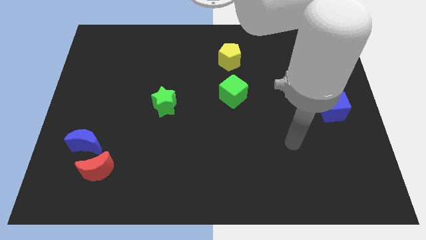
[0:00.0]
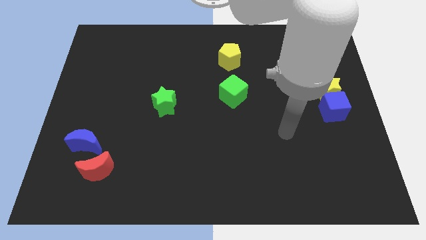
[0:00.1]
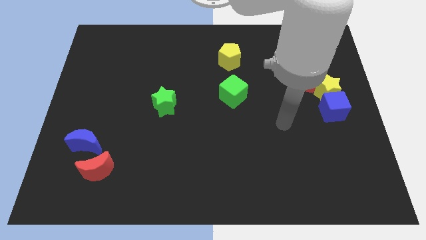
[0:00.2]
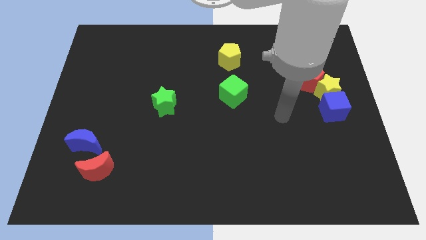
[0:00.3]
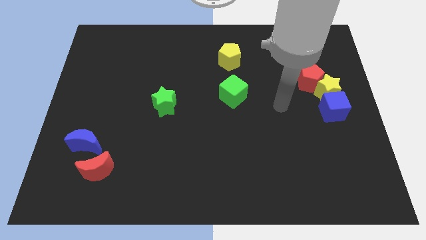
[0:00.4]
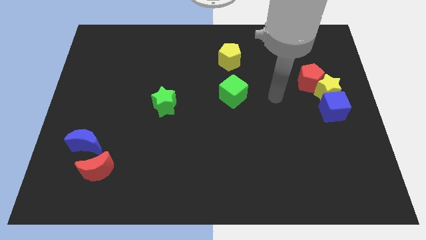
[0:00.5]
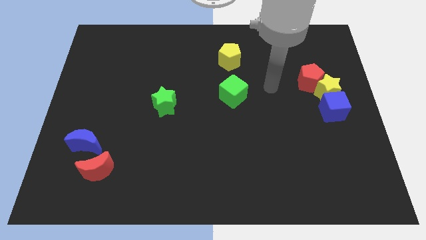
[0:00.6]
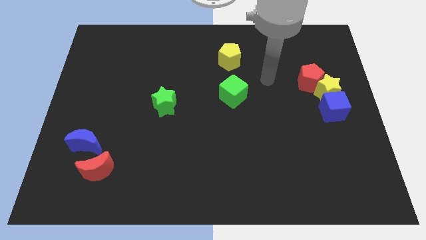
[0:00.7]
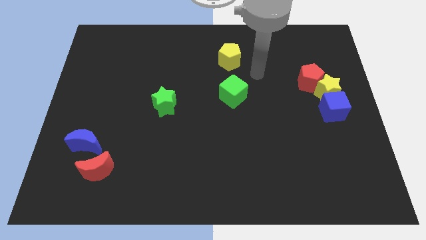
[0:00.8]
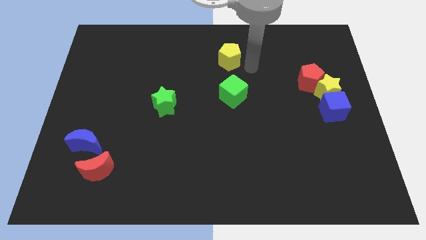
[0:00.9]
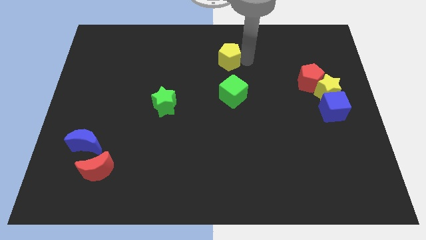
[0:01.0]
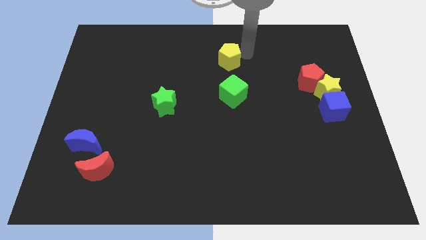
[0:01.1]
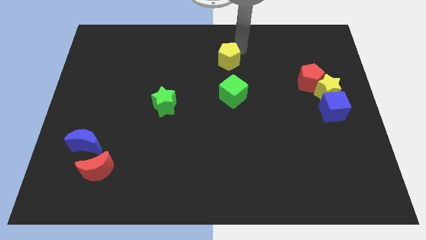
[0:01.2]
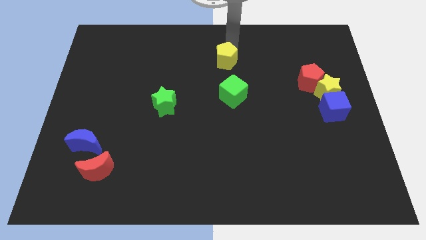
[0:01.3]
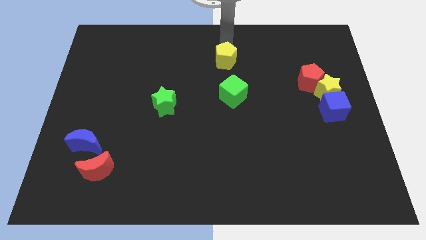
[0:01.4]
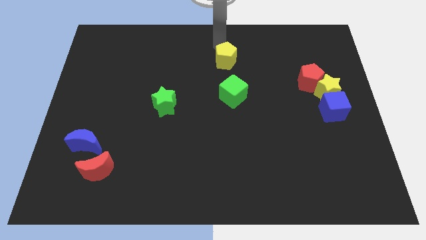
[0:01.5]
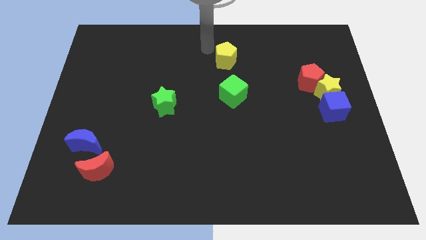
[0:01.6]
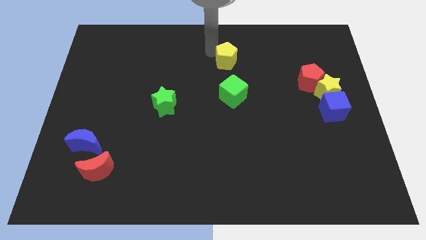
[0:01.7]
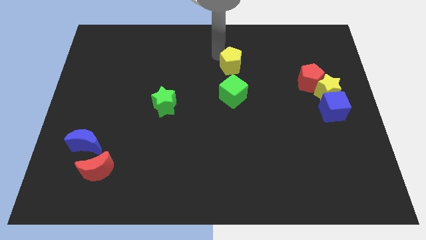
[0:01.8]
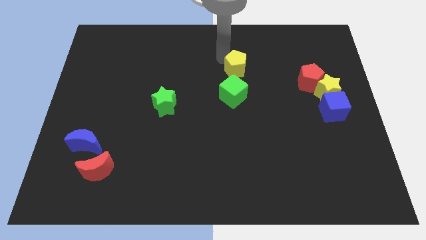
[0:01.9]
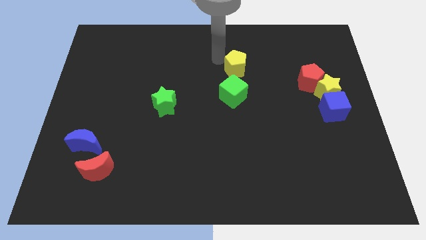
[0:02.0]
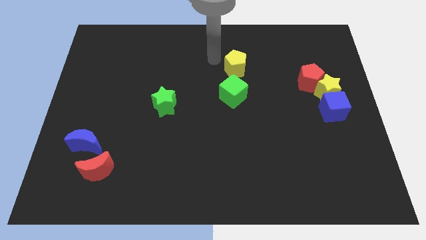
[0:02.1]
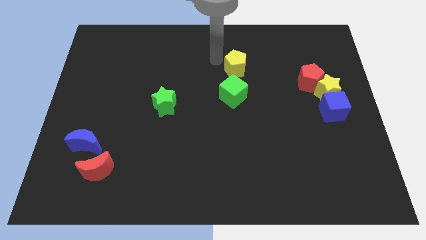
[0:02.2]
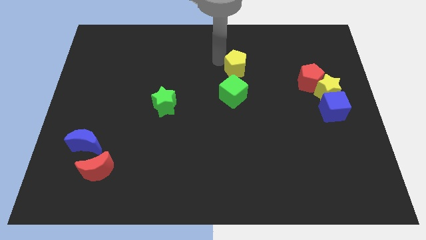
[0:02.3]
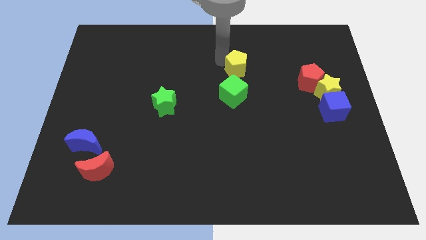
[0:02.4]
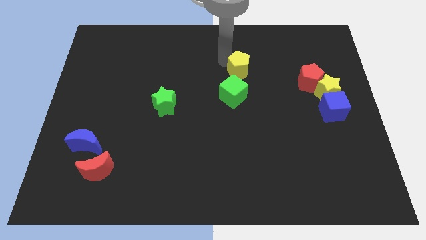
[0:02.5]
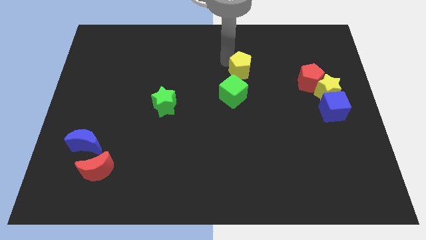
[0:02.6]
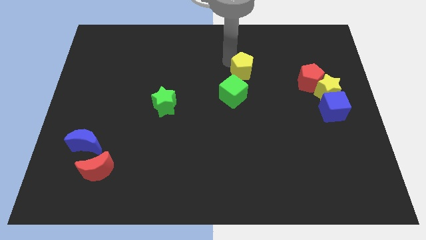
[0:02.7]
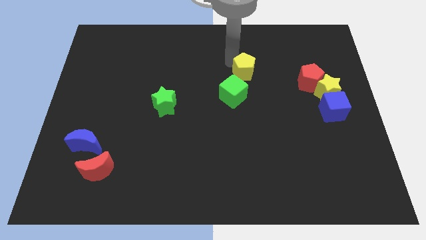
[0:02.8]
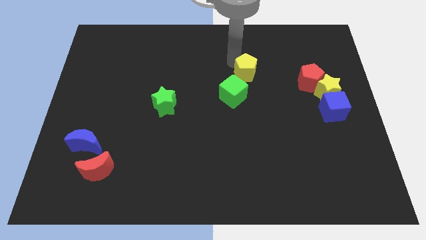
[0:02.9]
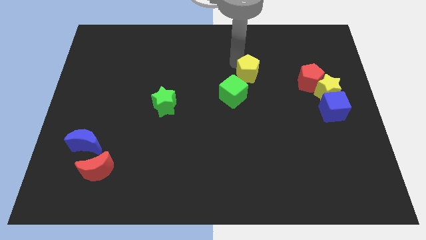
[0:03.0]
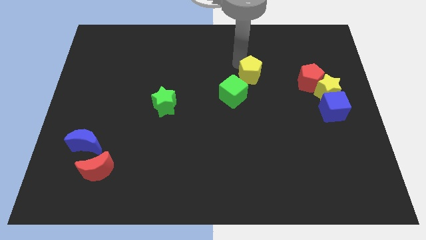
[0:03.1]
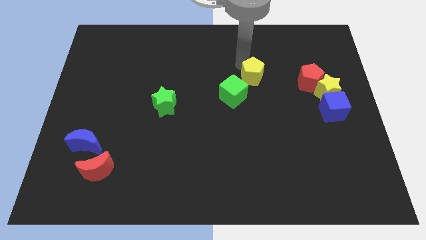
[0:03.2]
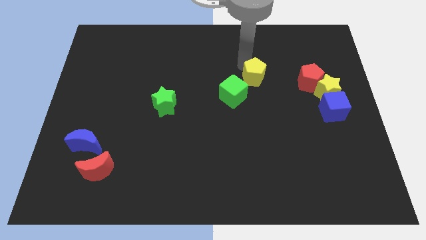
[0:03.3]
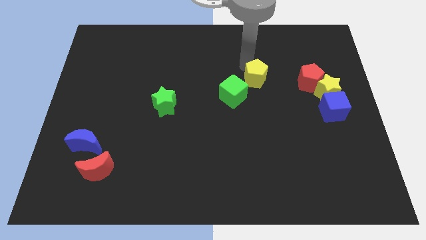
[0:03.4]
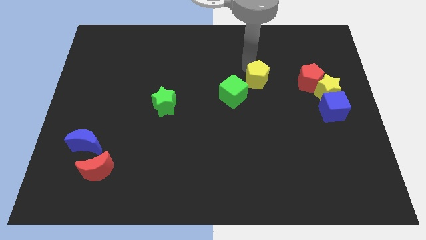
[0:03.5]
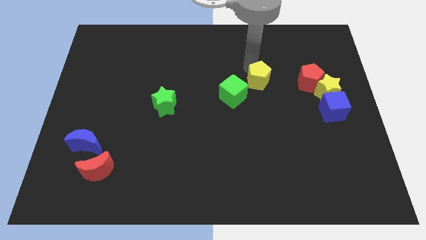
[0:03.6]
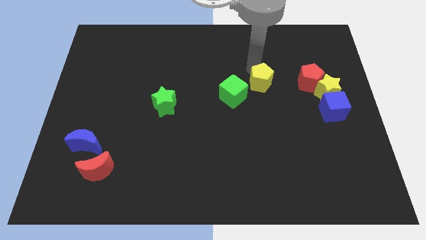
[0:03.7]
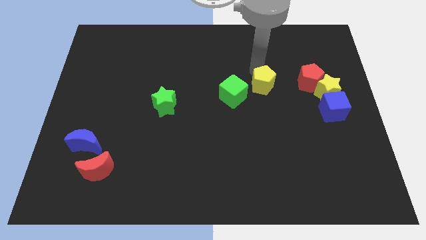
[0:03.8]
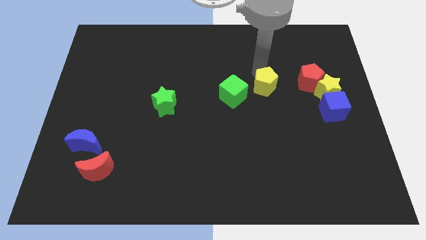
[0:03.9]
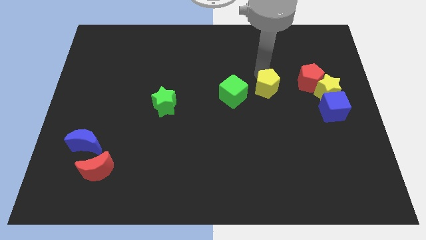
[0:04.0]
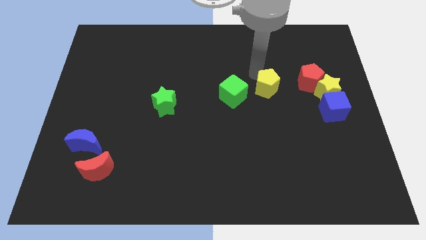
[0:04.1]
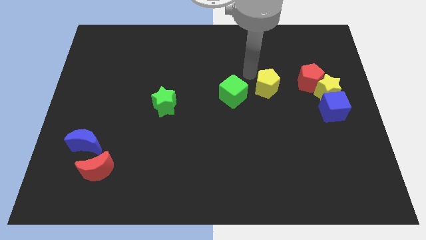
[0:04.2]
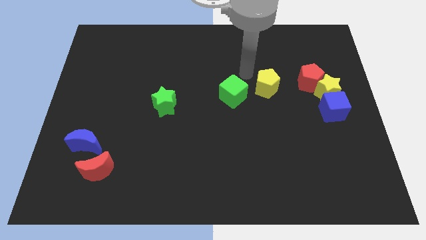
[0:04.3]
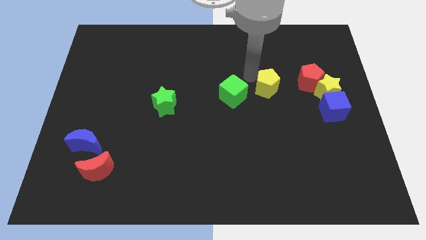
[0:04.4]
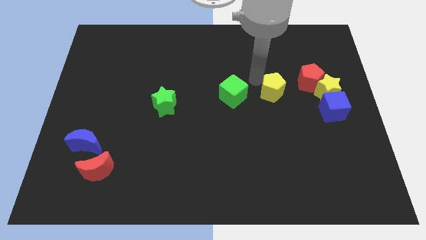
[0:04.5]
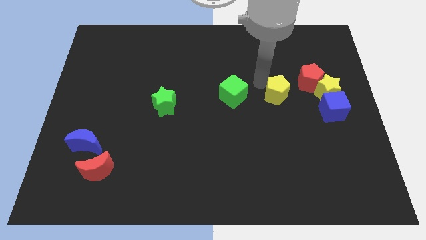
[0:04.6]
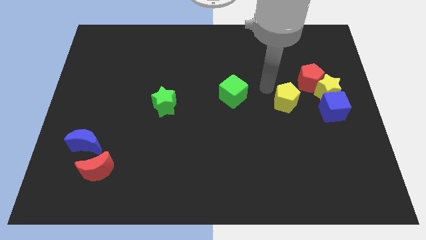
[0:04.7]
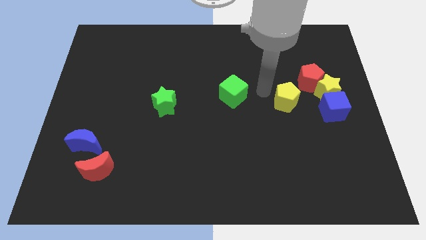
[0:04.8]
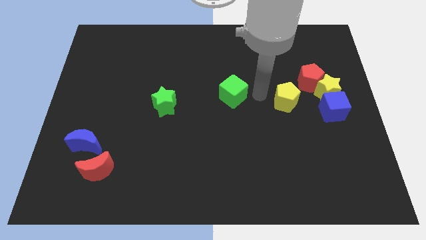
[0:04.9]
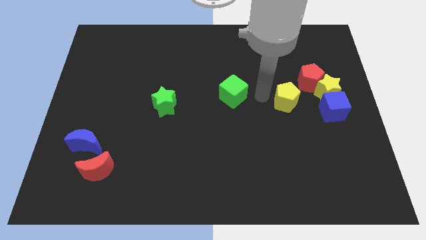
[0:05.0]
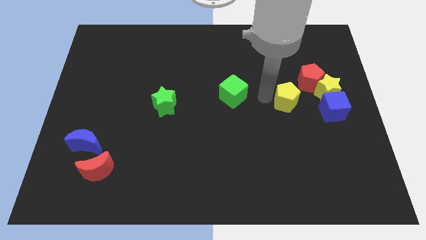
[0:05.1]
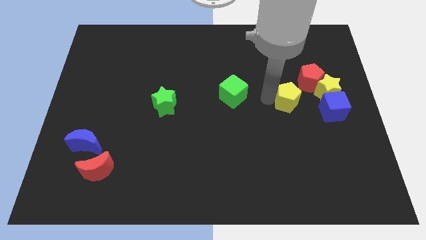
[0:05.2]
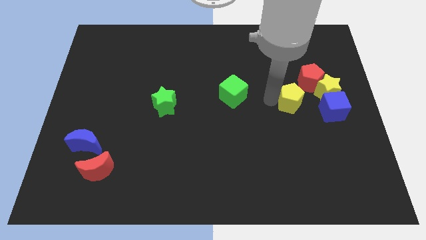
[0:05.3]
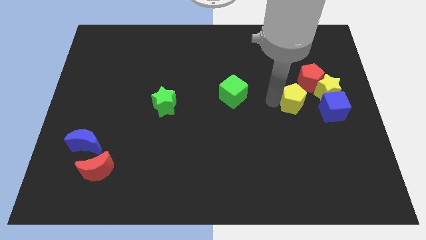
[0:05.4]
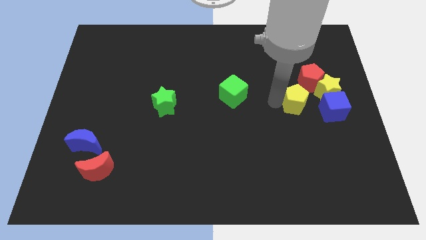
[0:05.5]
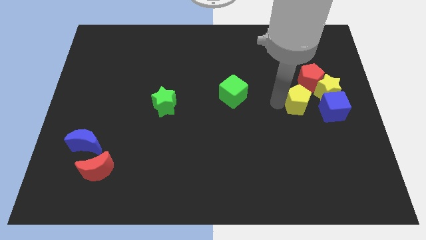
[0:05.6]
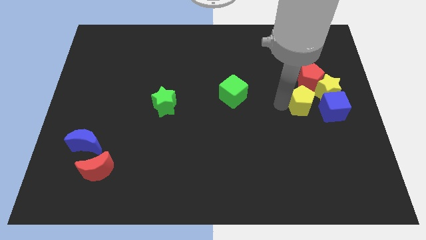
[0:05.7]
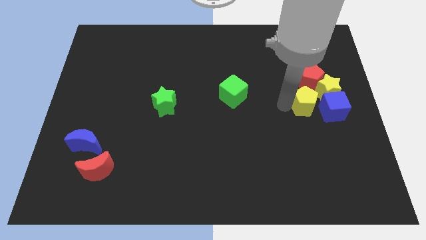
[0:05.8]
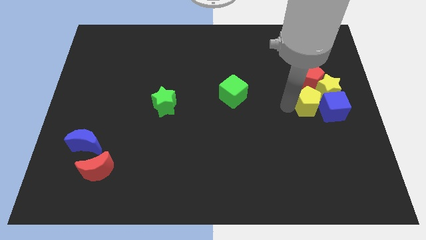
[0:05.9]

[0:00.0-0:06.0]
slide the yellow pentagon next to the blue cube

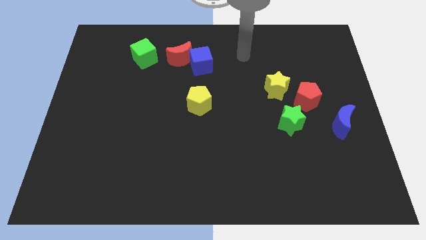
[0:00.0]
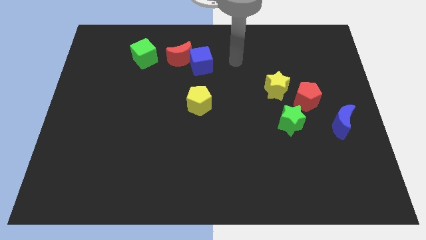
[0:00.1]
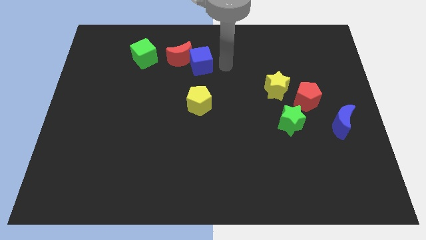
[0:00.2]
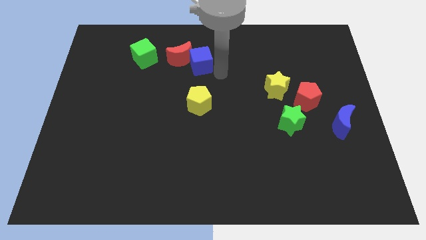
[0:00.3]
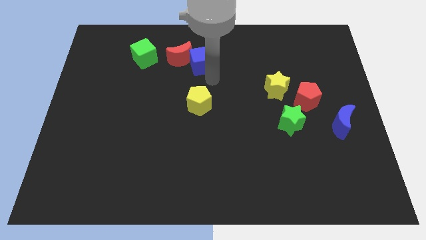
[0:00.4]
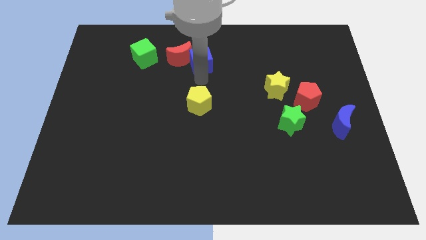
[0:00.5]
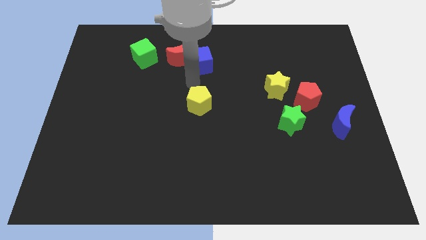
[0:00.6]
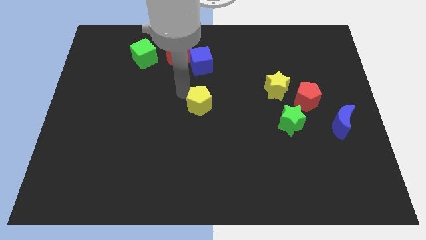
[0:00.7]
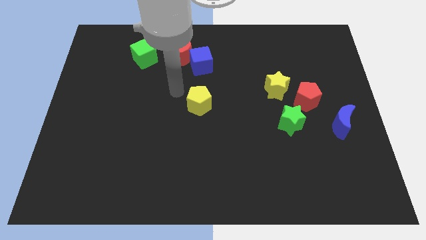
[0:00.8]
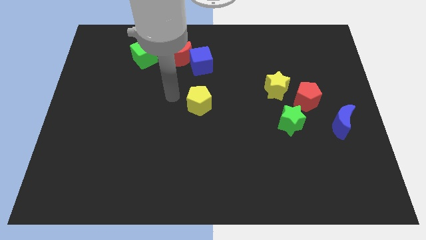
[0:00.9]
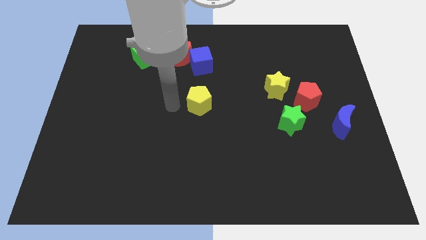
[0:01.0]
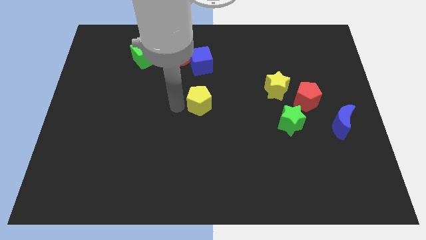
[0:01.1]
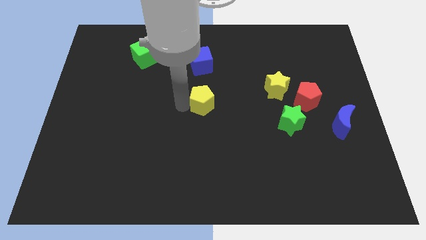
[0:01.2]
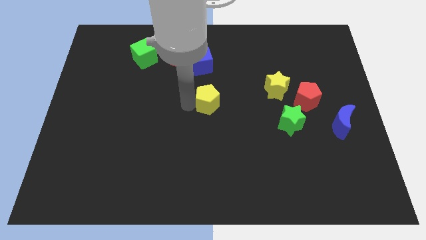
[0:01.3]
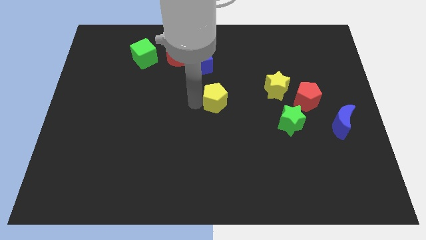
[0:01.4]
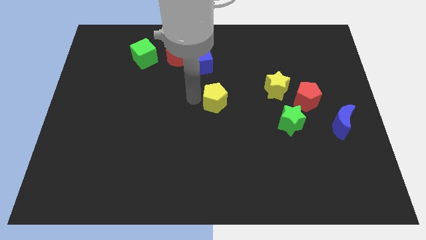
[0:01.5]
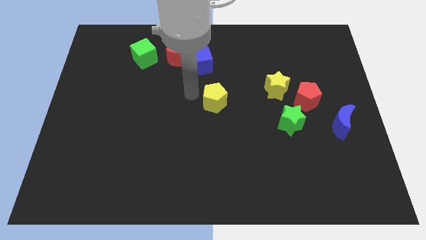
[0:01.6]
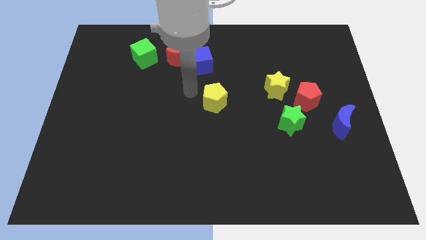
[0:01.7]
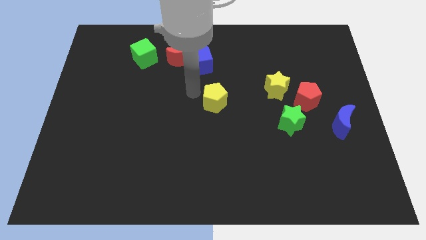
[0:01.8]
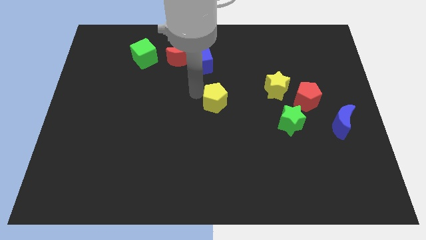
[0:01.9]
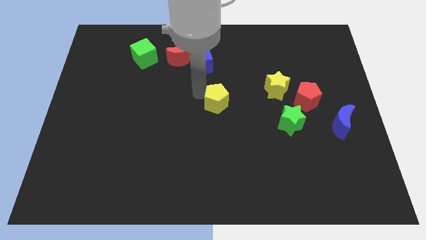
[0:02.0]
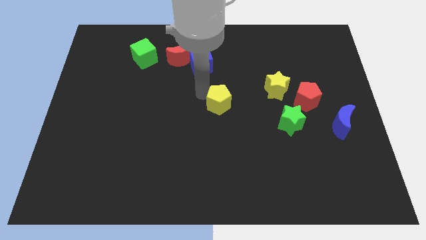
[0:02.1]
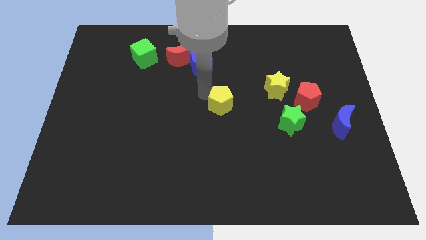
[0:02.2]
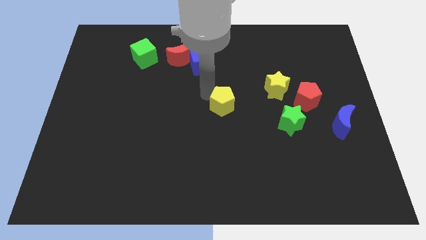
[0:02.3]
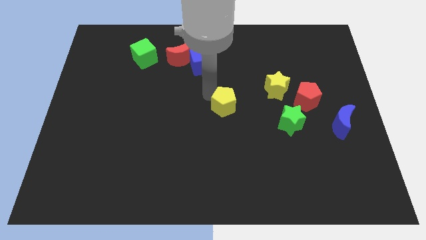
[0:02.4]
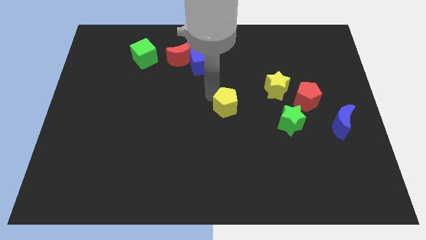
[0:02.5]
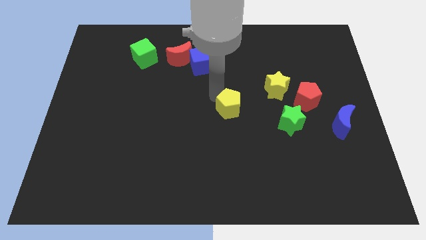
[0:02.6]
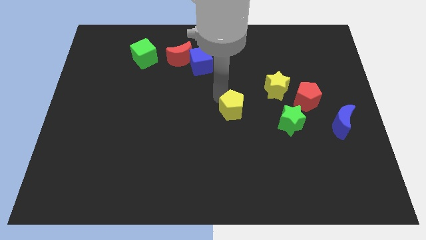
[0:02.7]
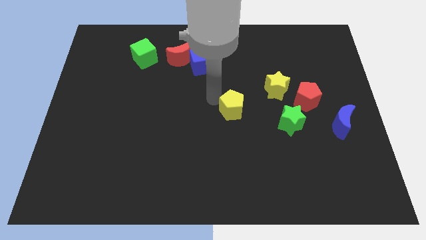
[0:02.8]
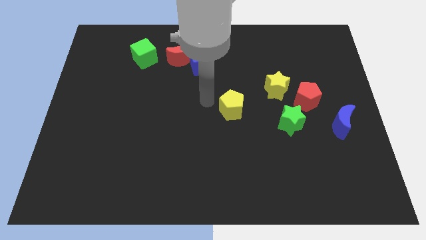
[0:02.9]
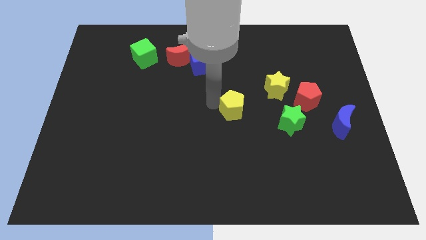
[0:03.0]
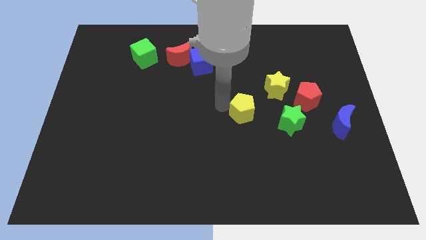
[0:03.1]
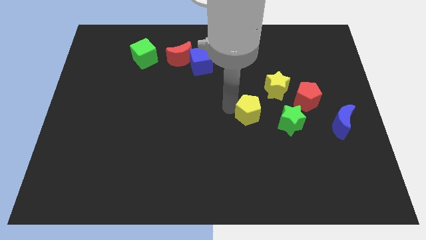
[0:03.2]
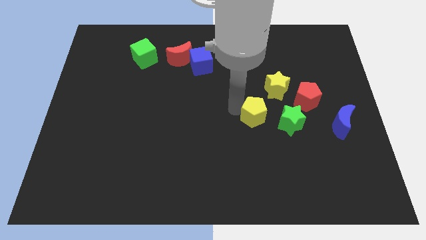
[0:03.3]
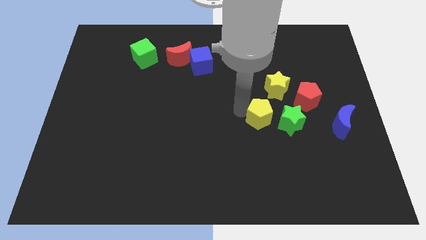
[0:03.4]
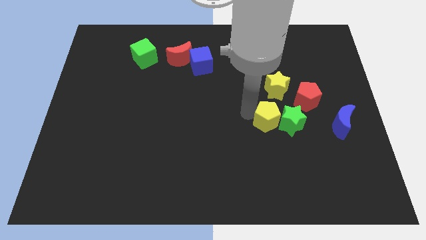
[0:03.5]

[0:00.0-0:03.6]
slide the yellow pentagon towards the green star
